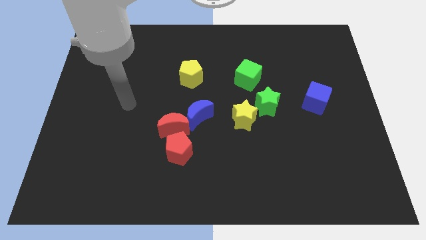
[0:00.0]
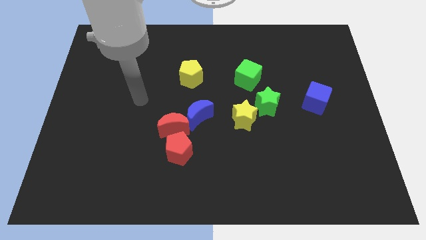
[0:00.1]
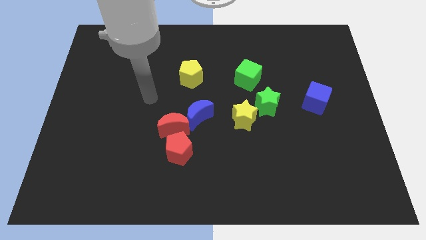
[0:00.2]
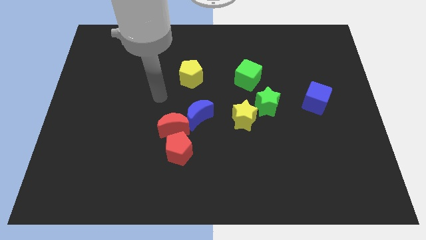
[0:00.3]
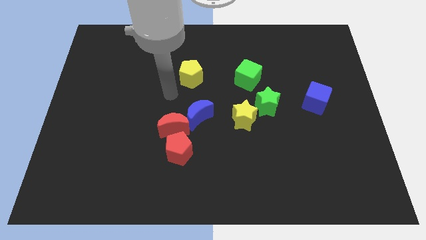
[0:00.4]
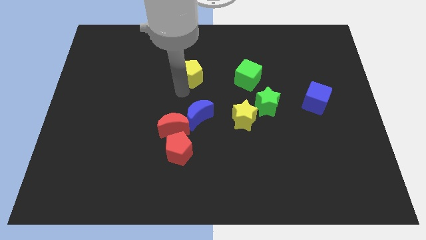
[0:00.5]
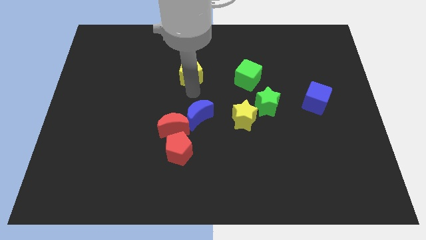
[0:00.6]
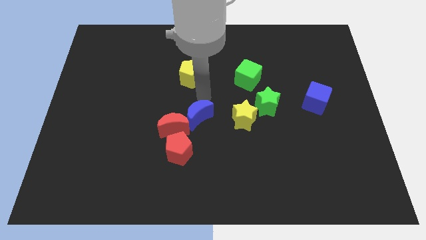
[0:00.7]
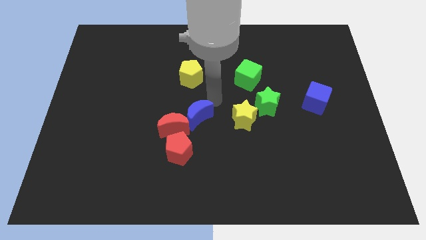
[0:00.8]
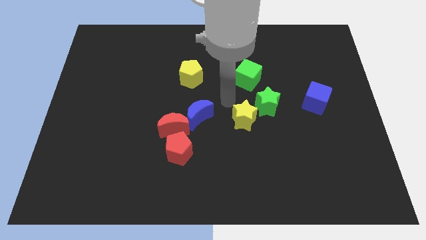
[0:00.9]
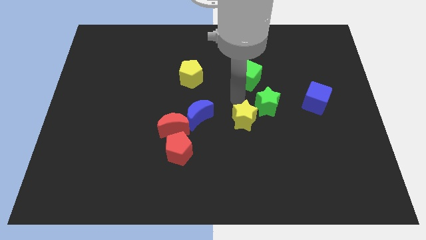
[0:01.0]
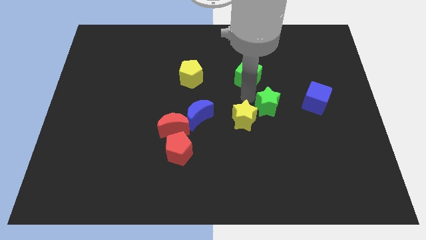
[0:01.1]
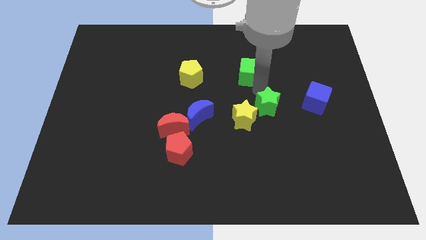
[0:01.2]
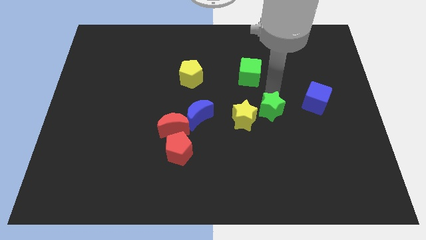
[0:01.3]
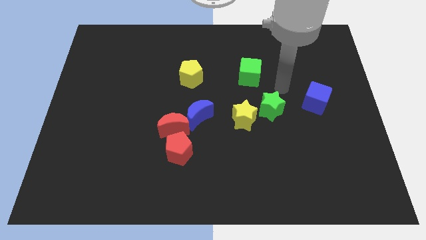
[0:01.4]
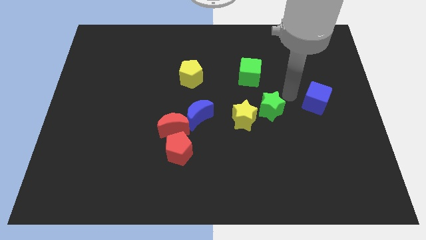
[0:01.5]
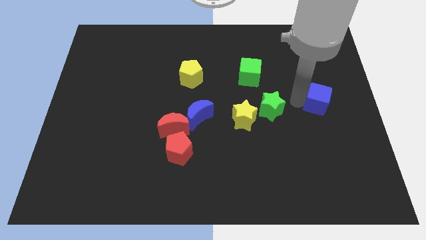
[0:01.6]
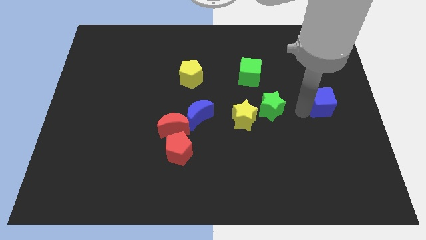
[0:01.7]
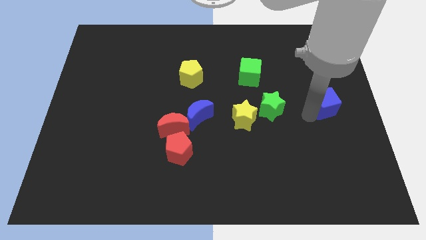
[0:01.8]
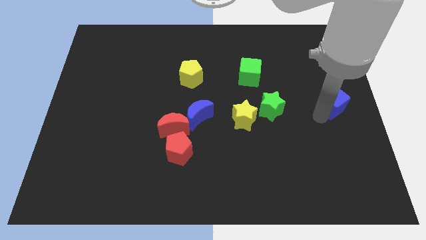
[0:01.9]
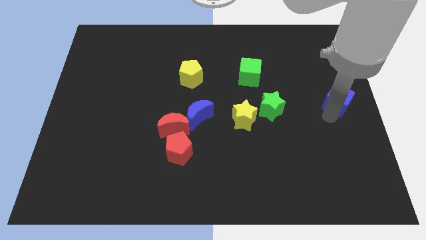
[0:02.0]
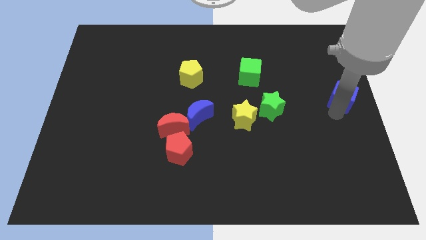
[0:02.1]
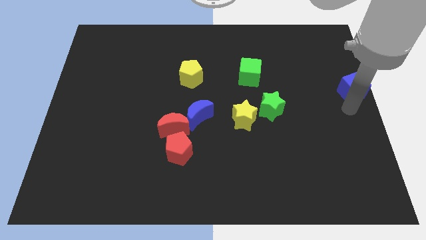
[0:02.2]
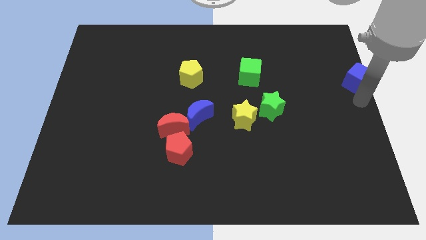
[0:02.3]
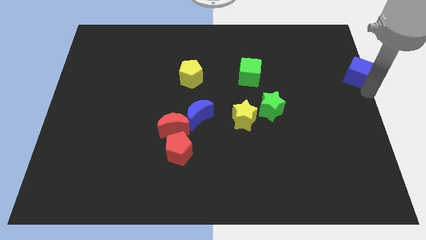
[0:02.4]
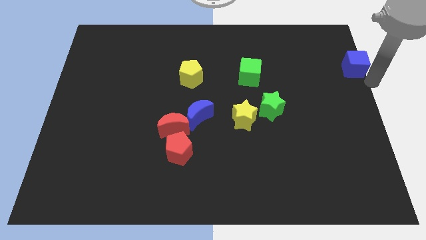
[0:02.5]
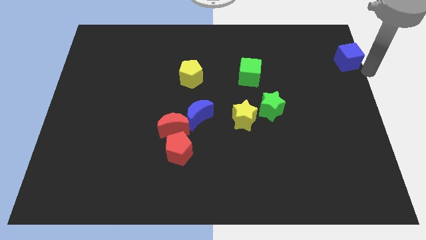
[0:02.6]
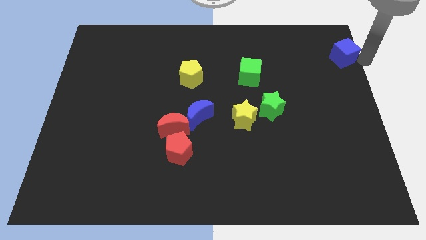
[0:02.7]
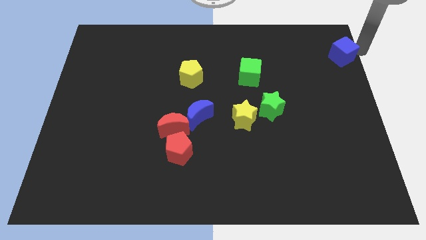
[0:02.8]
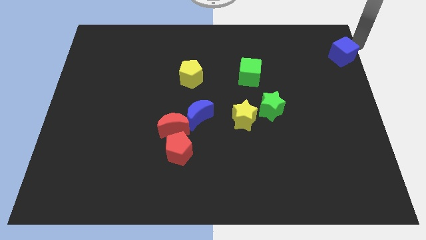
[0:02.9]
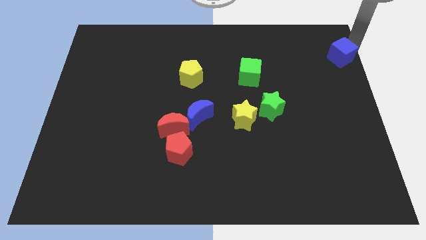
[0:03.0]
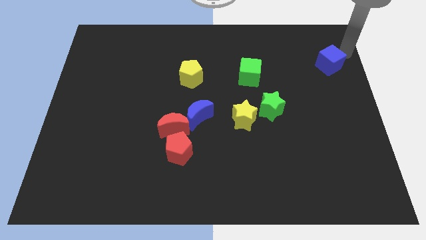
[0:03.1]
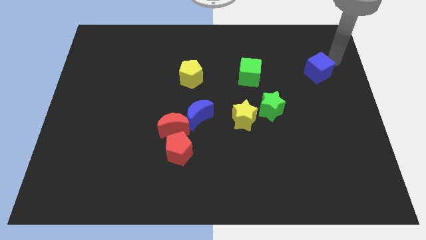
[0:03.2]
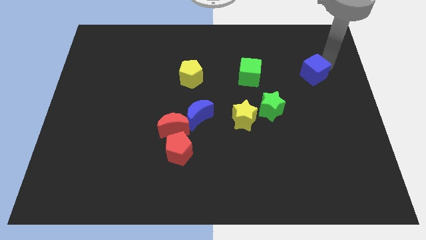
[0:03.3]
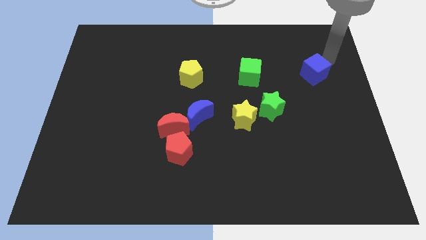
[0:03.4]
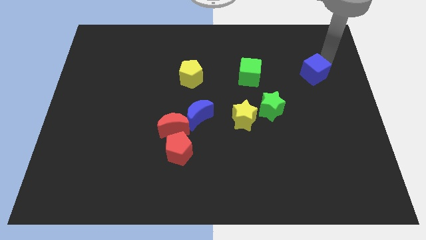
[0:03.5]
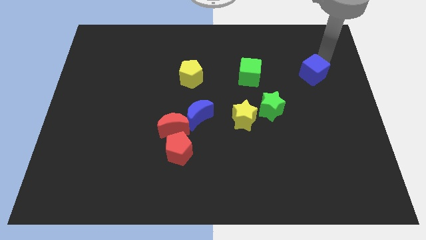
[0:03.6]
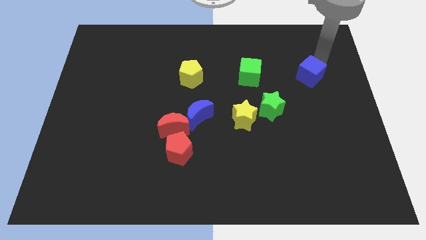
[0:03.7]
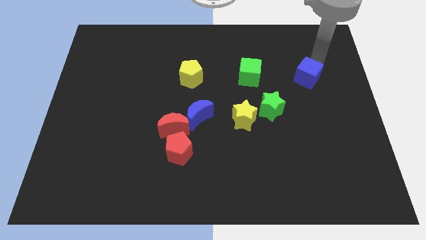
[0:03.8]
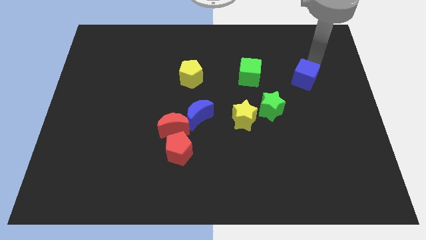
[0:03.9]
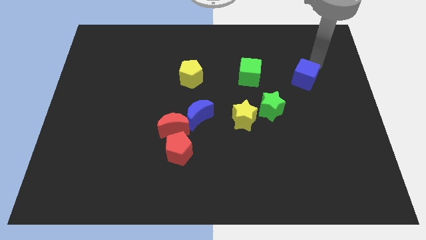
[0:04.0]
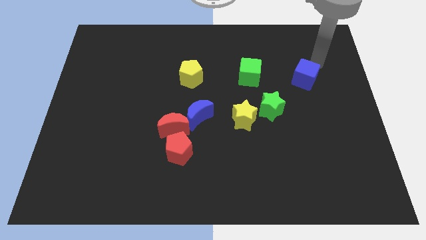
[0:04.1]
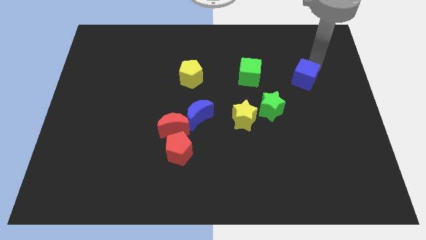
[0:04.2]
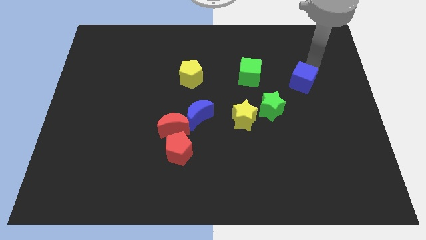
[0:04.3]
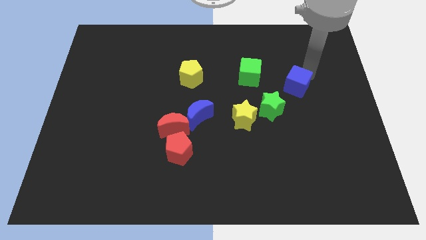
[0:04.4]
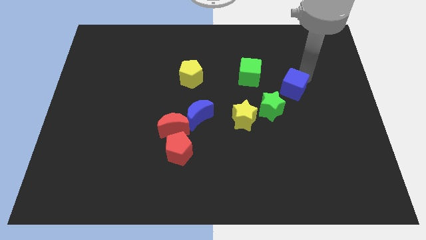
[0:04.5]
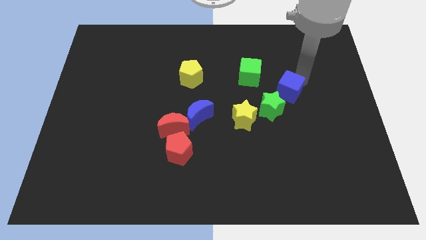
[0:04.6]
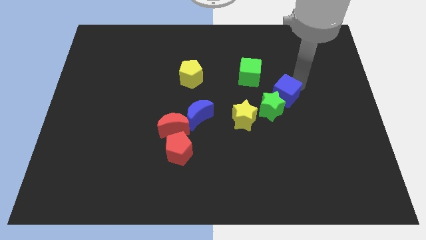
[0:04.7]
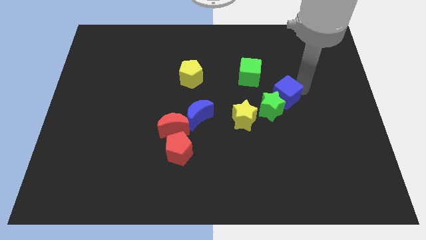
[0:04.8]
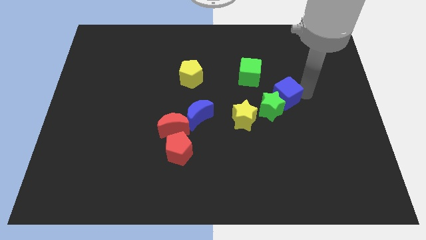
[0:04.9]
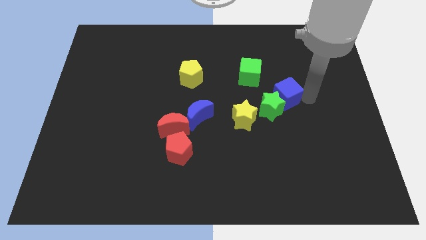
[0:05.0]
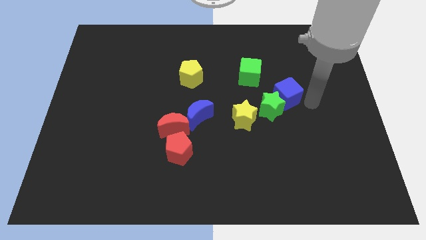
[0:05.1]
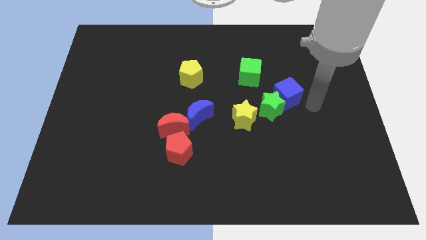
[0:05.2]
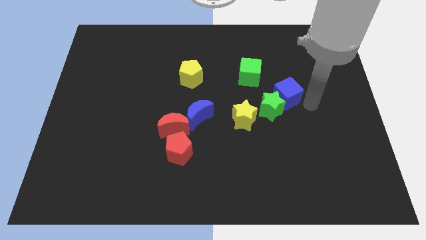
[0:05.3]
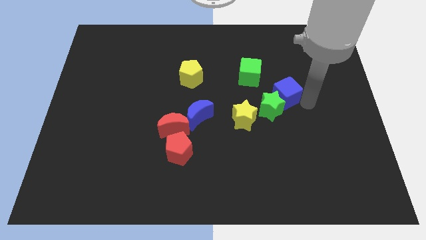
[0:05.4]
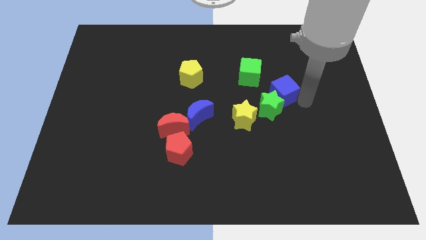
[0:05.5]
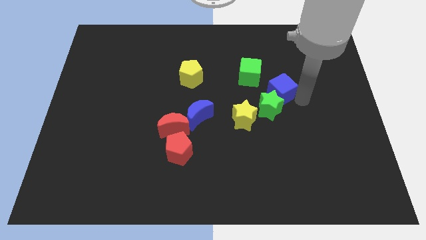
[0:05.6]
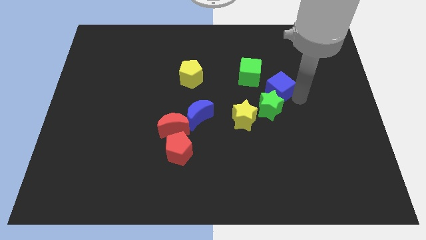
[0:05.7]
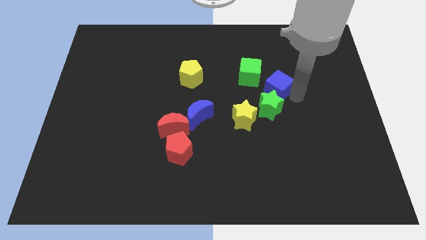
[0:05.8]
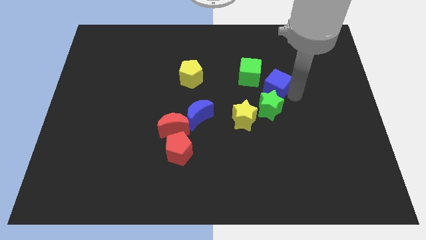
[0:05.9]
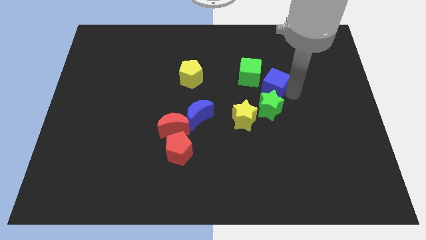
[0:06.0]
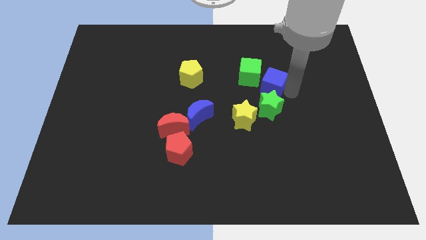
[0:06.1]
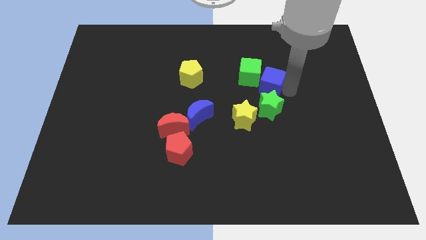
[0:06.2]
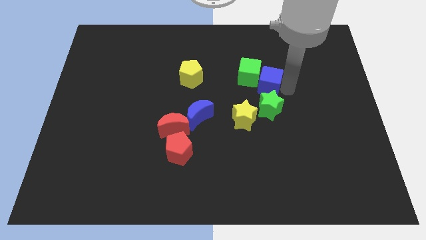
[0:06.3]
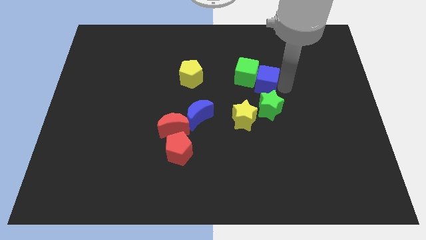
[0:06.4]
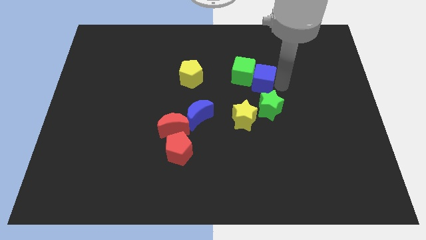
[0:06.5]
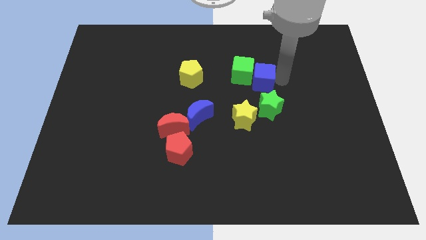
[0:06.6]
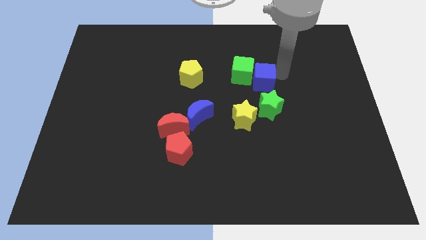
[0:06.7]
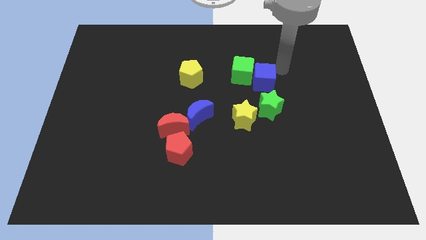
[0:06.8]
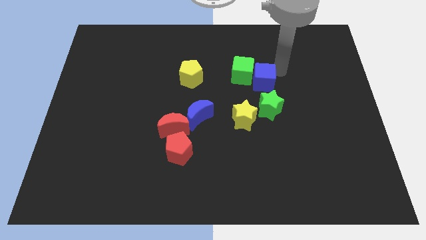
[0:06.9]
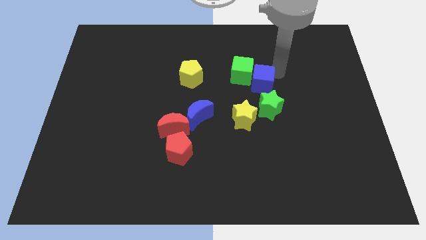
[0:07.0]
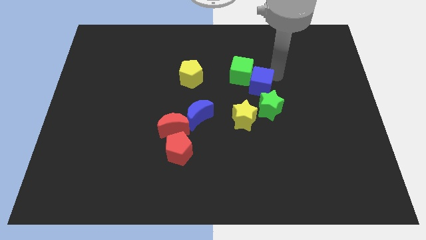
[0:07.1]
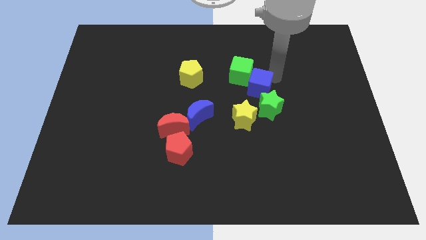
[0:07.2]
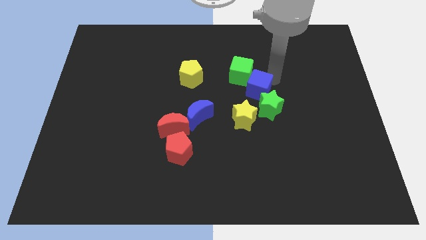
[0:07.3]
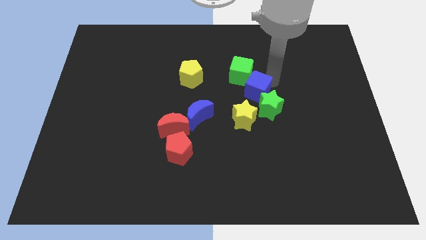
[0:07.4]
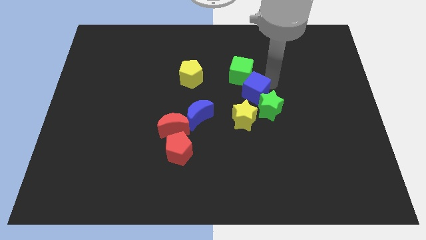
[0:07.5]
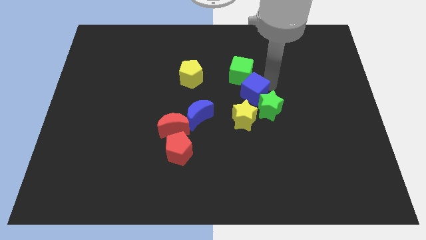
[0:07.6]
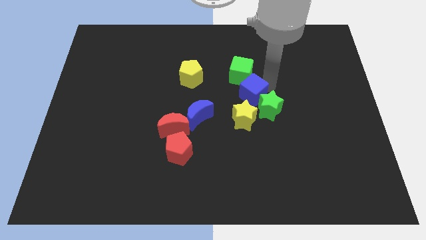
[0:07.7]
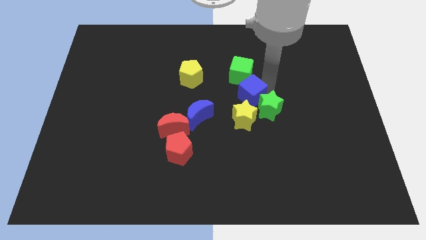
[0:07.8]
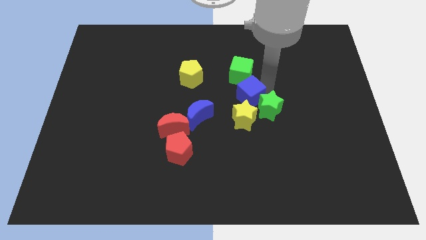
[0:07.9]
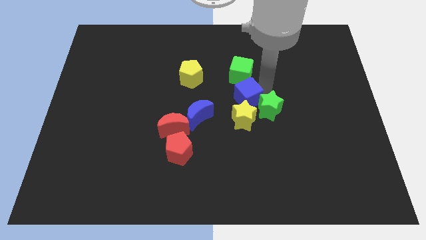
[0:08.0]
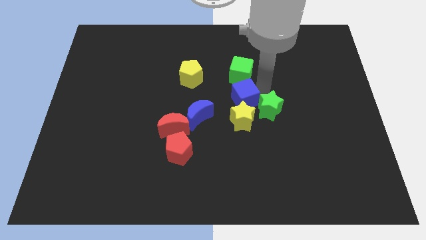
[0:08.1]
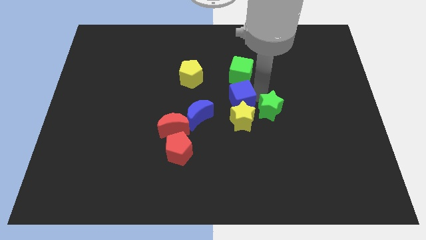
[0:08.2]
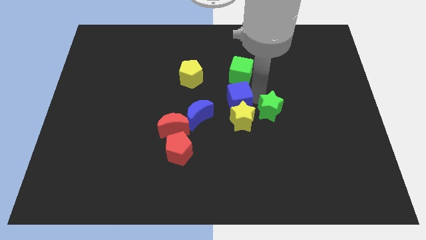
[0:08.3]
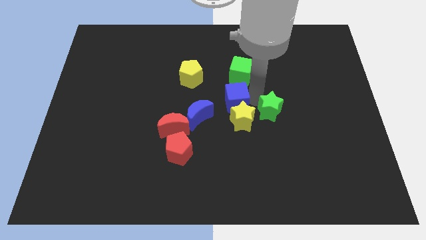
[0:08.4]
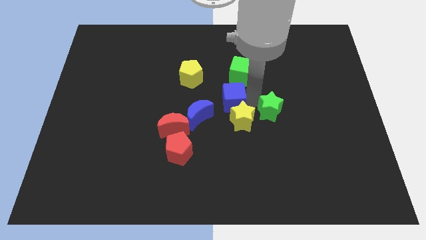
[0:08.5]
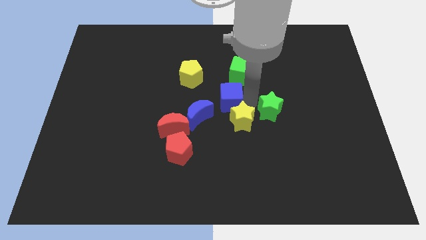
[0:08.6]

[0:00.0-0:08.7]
push the blue cube to the bottom right side of the yellow pentagon
